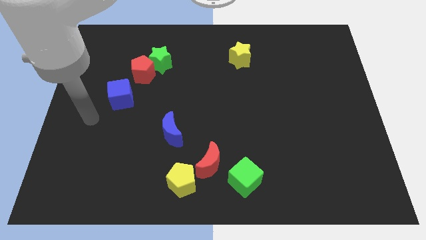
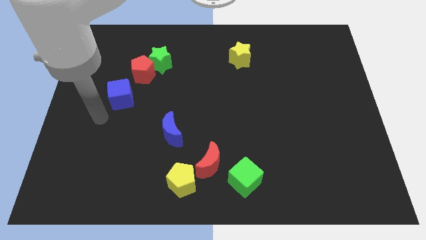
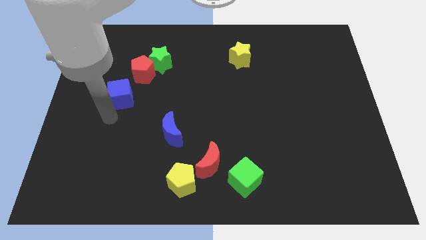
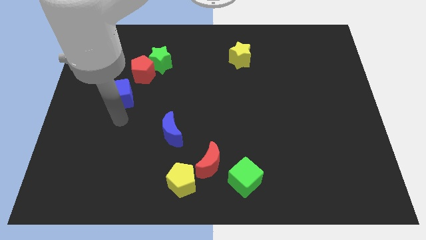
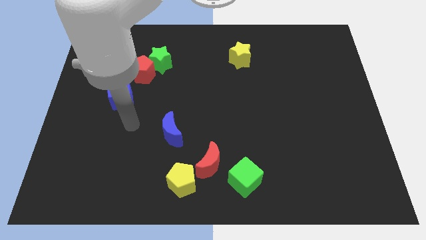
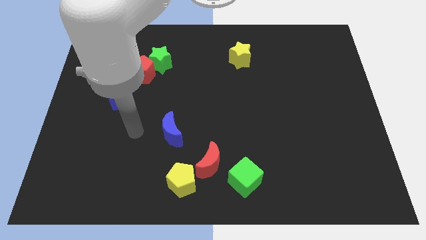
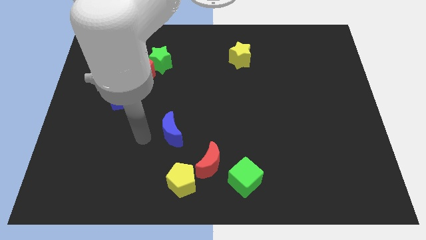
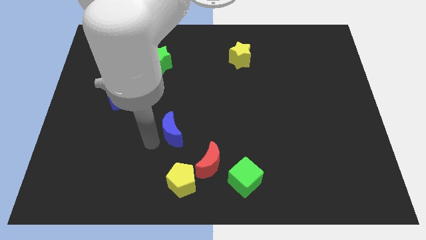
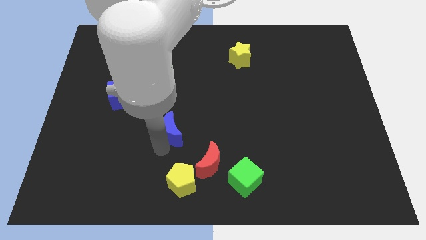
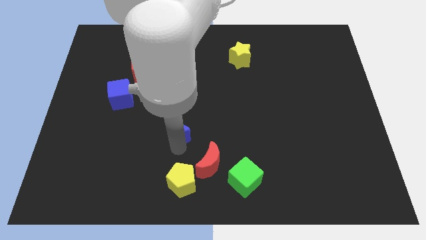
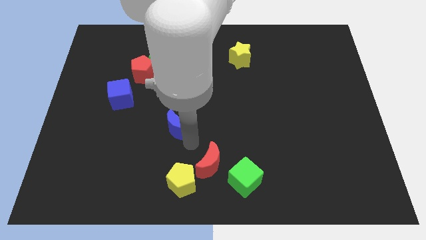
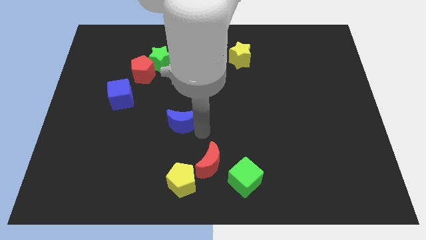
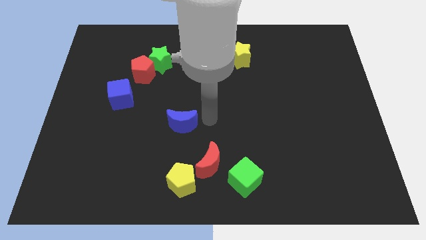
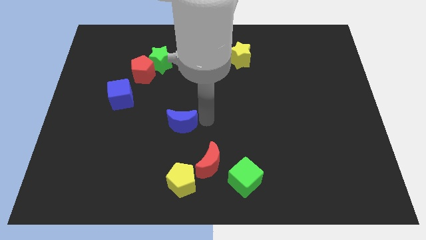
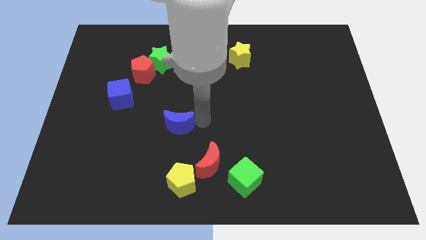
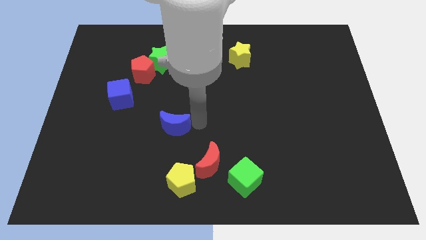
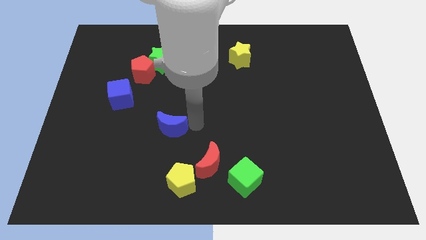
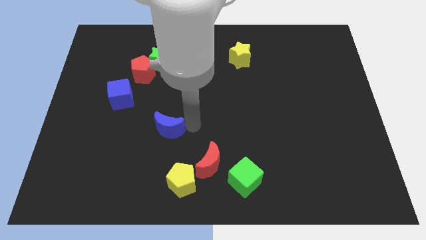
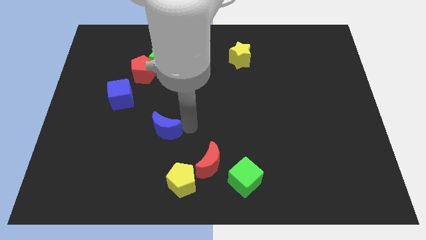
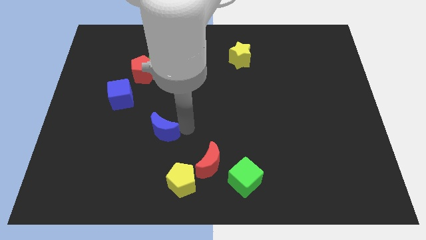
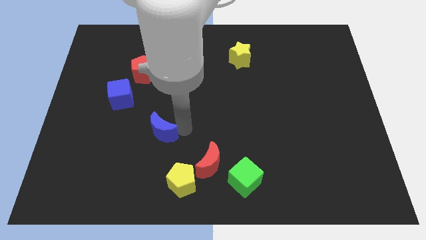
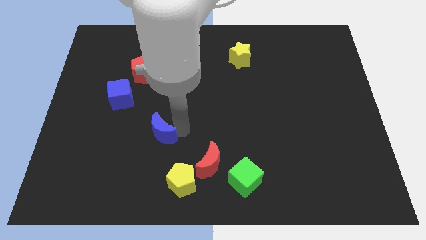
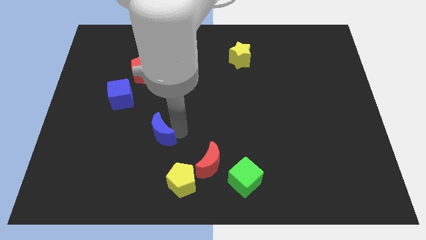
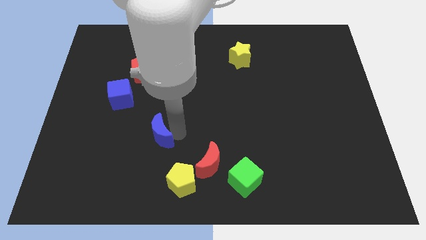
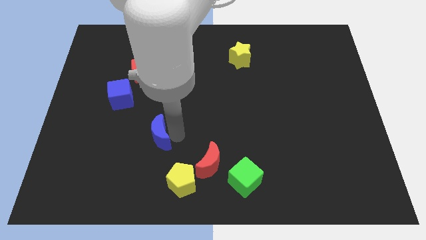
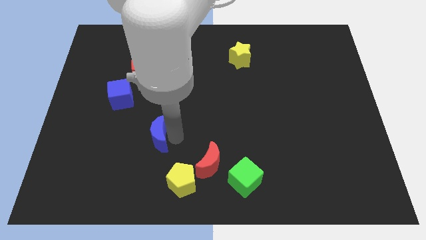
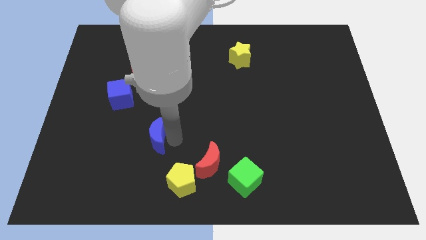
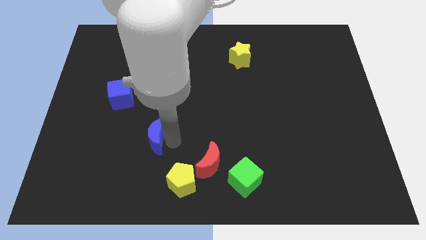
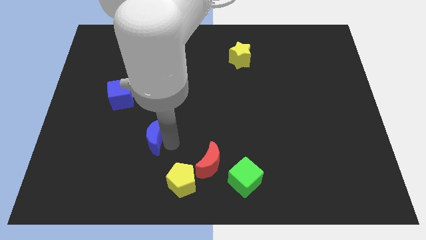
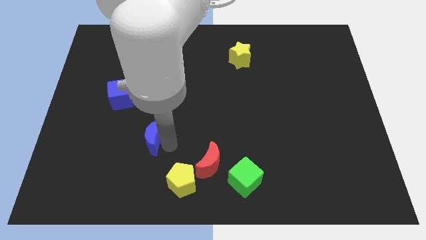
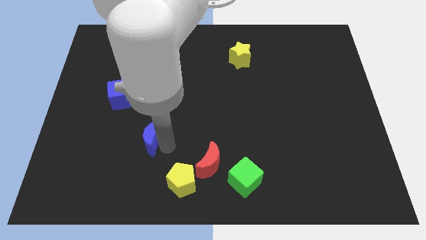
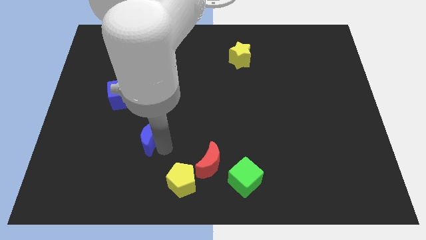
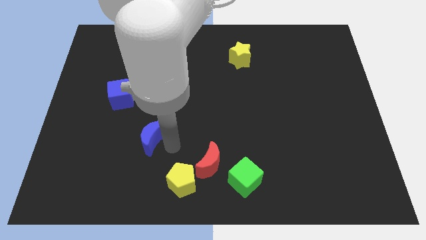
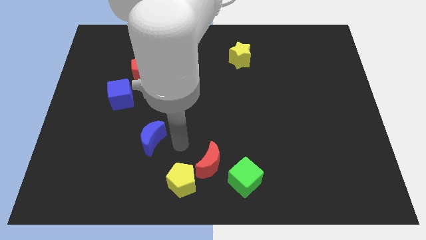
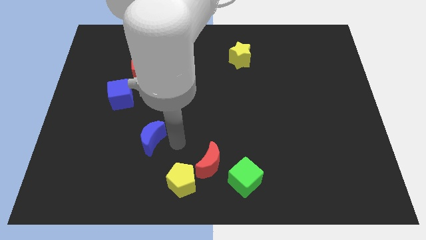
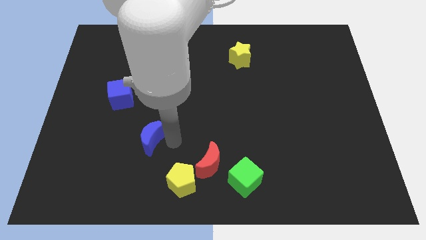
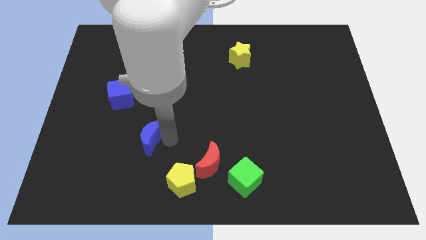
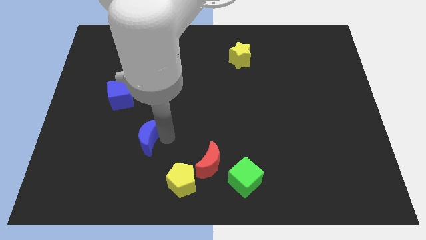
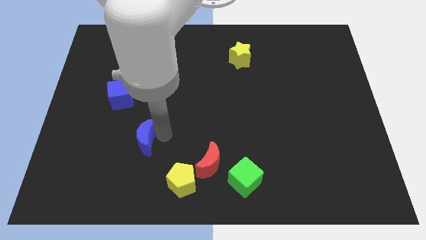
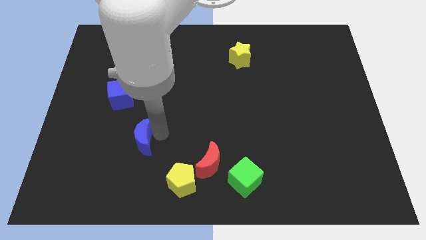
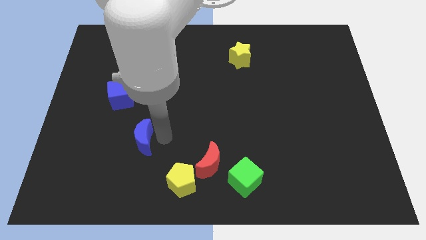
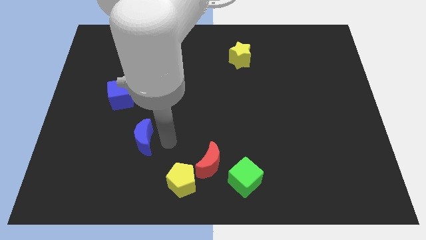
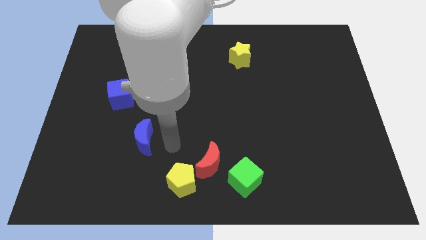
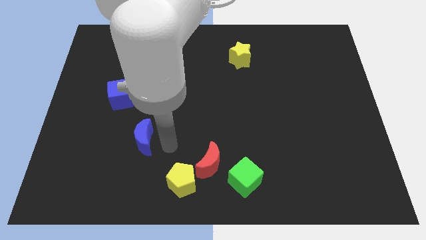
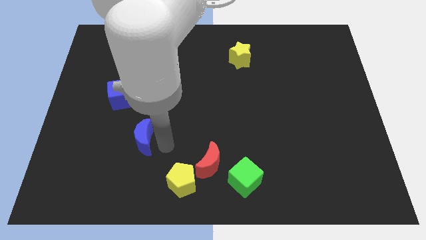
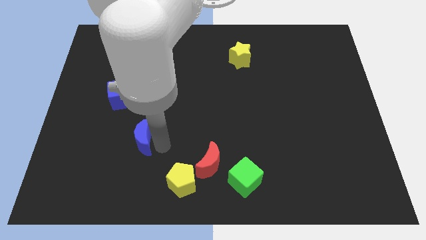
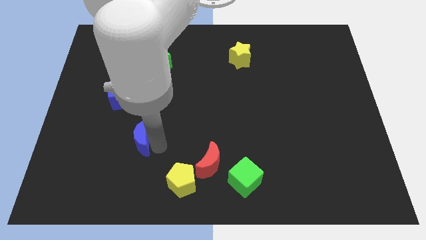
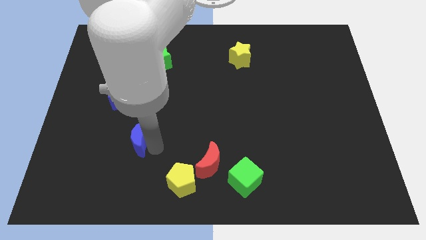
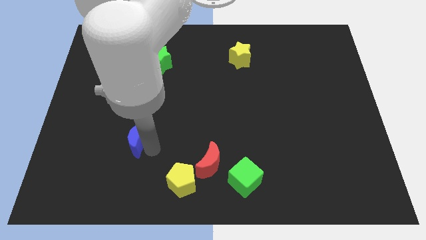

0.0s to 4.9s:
slide the blue moon to the left slightly

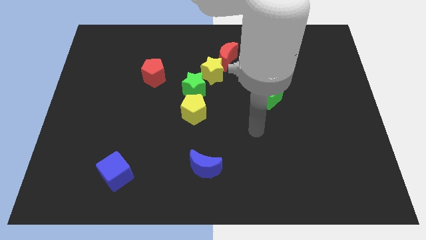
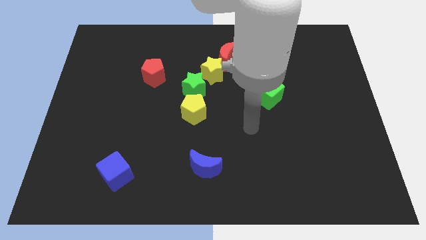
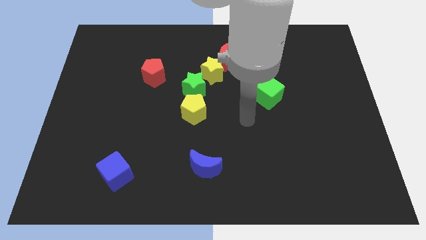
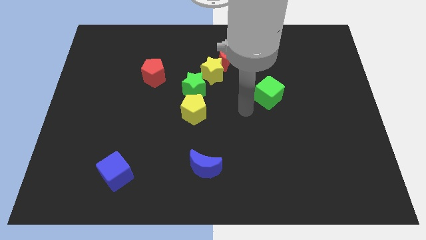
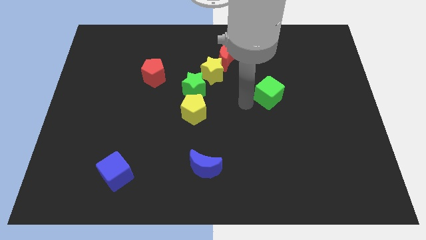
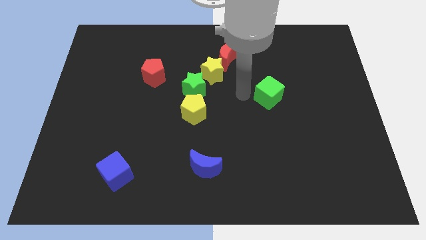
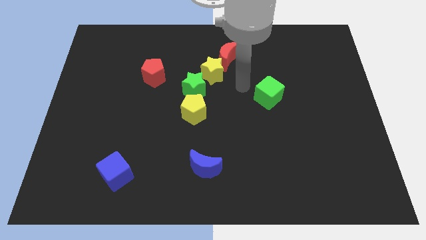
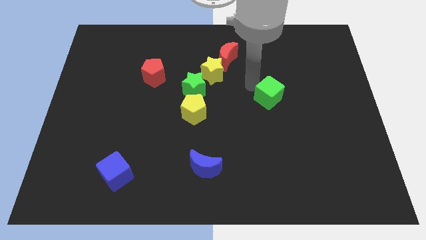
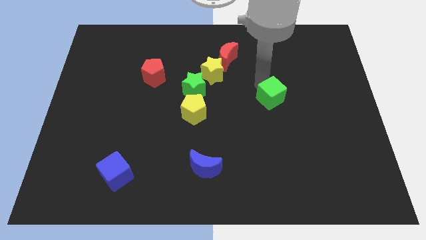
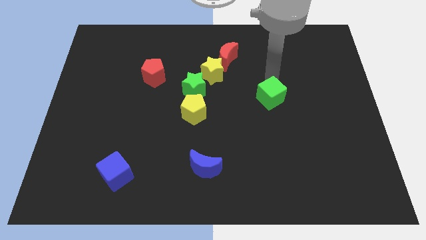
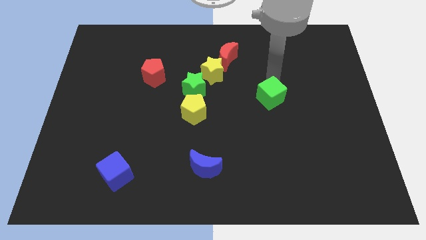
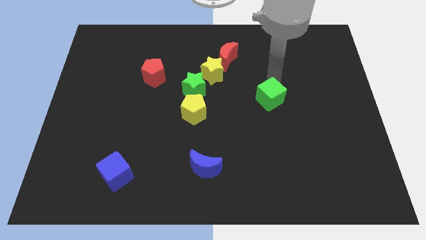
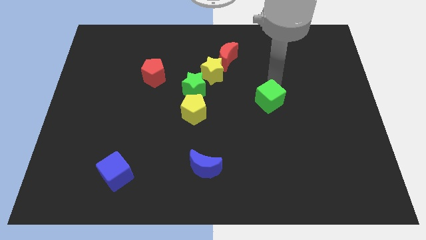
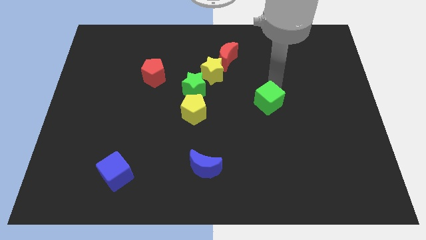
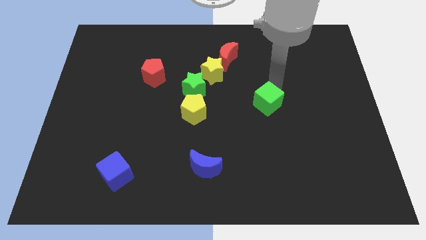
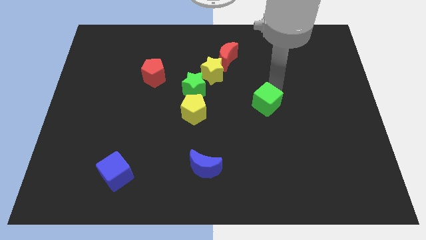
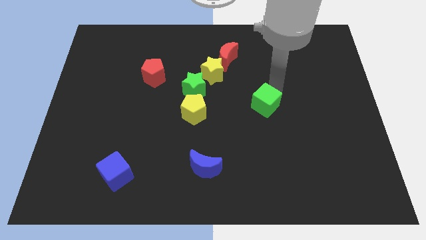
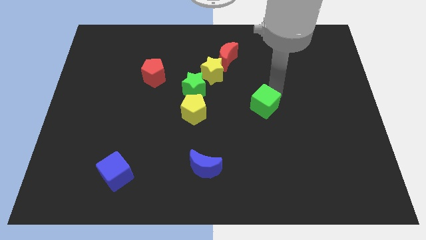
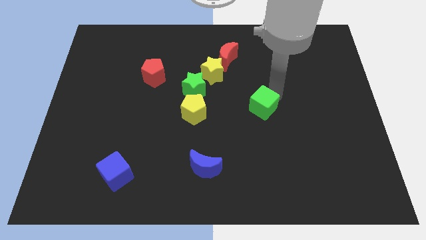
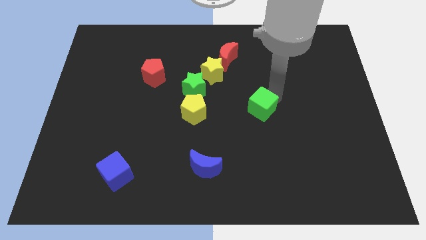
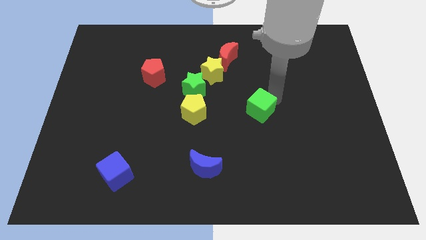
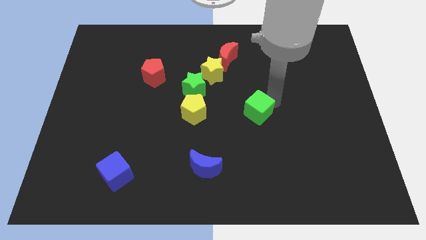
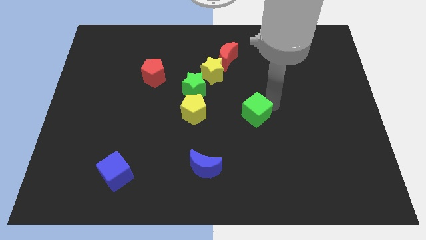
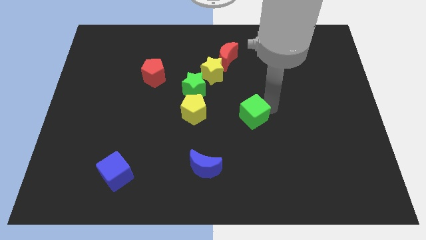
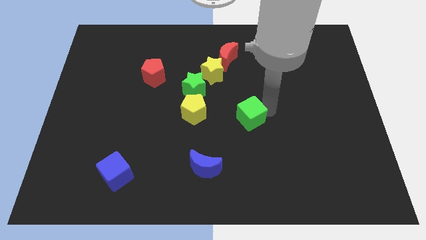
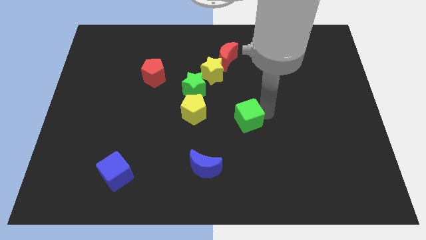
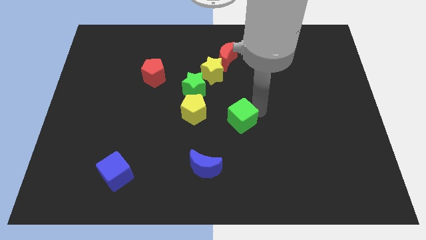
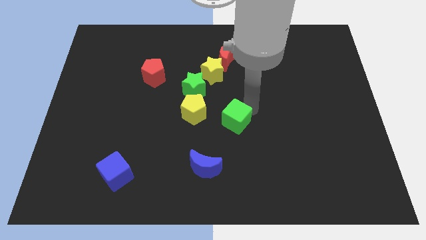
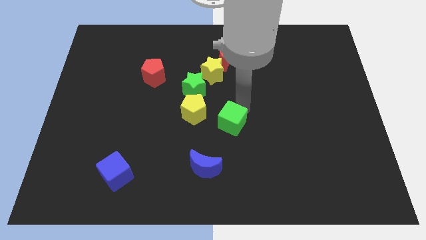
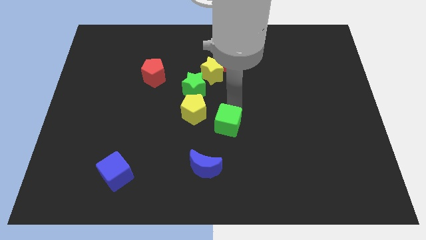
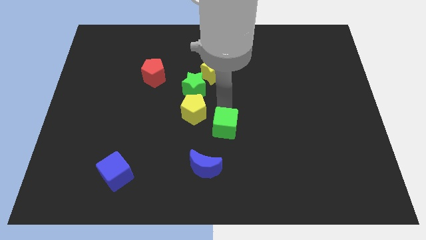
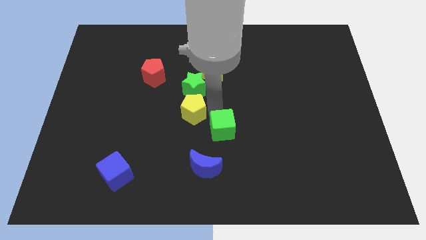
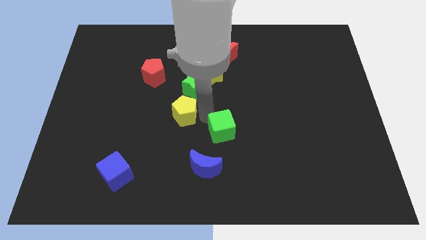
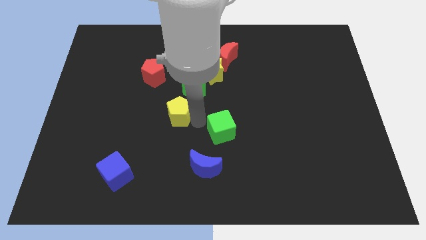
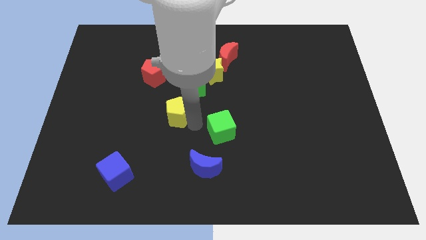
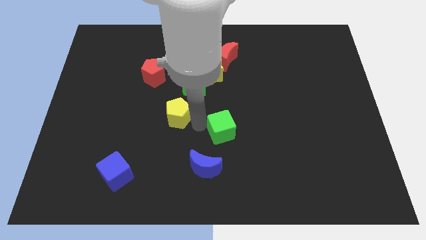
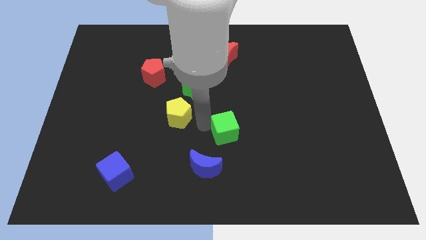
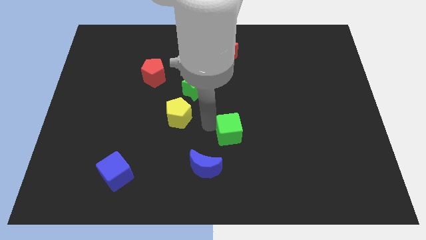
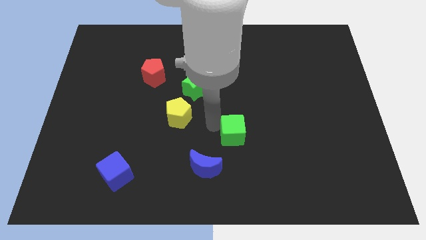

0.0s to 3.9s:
push the green cube downwards a little
